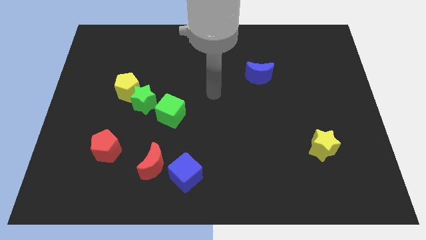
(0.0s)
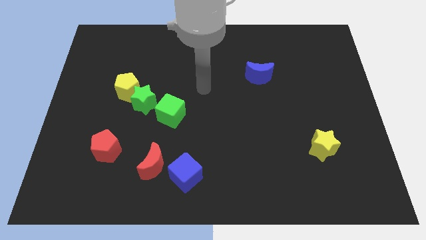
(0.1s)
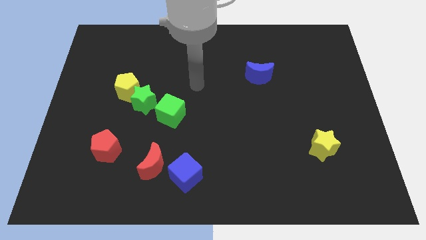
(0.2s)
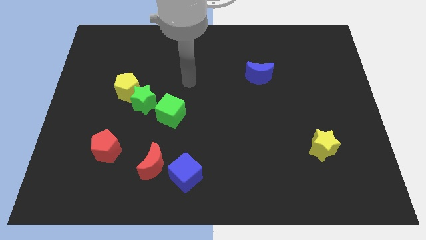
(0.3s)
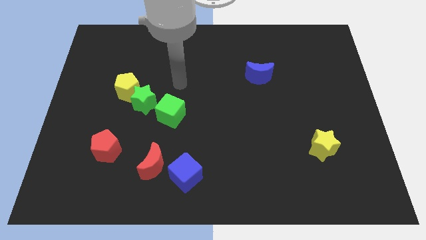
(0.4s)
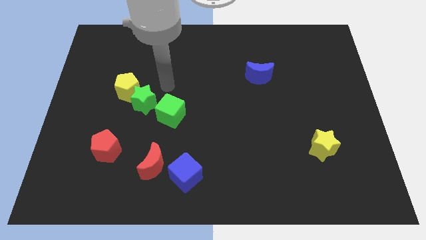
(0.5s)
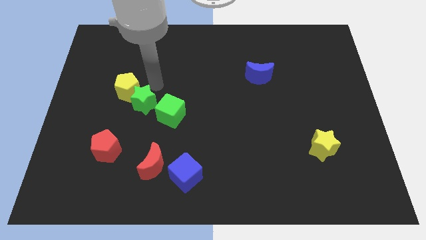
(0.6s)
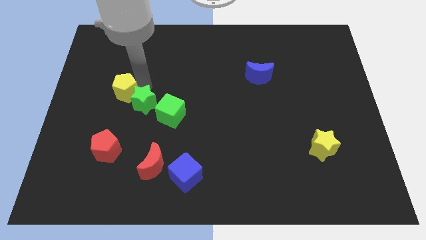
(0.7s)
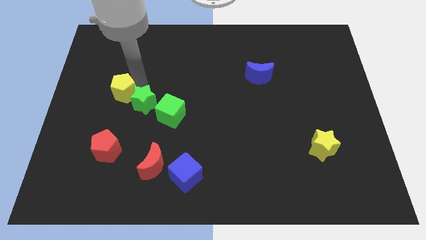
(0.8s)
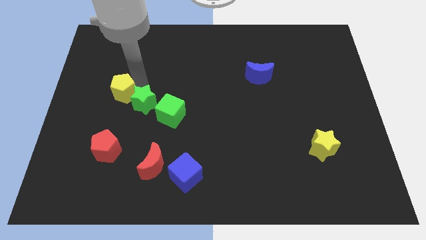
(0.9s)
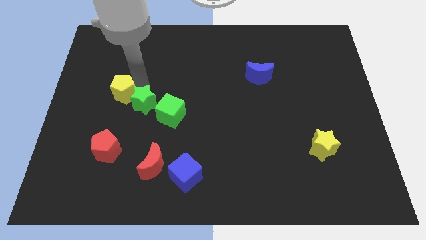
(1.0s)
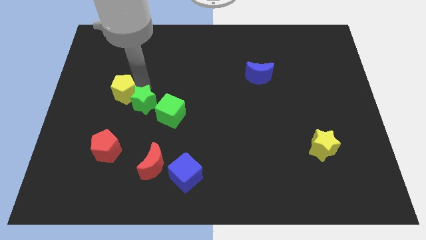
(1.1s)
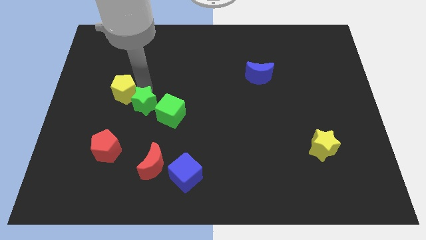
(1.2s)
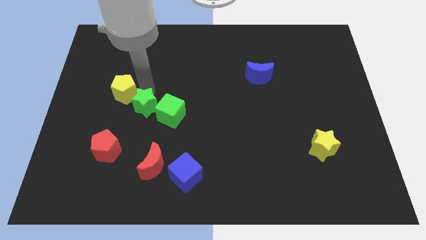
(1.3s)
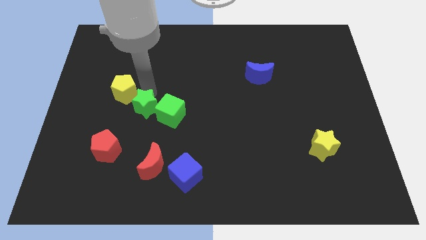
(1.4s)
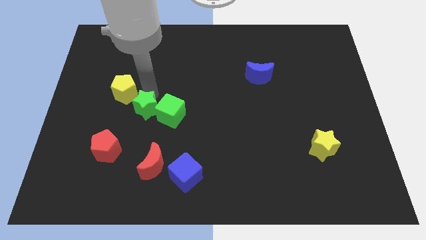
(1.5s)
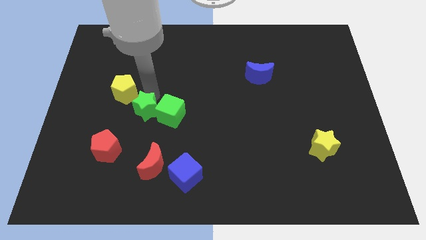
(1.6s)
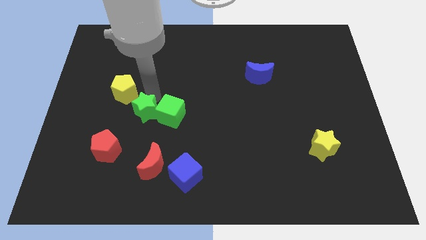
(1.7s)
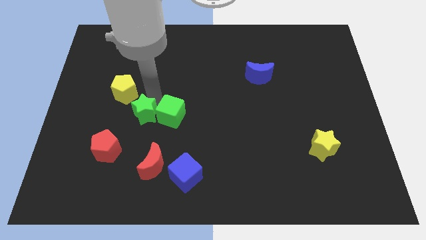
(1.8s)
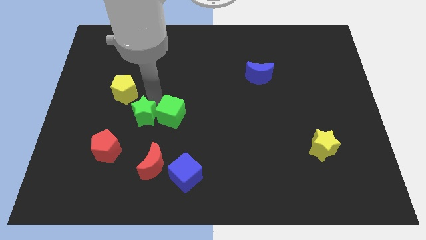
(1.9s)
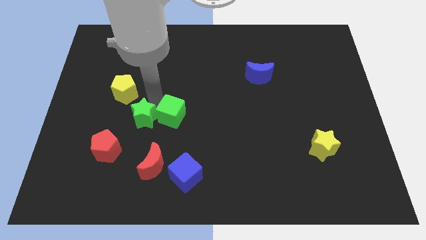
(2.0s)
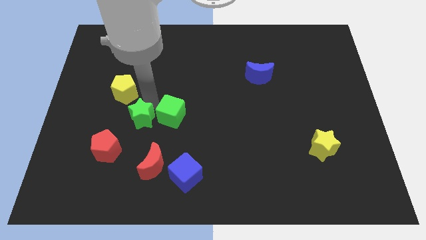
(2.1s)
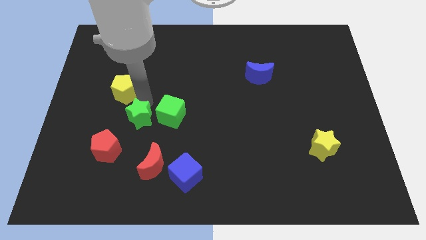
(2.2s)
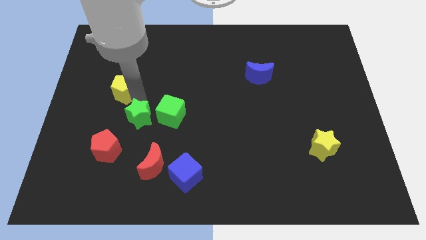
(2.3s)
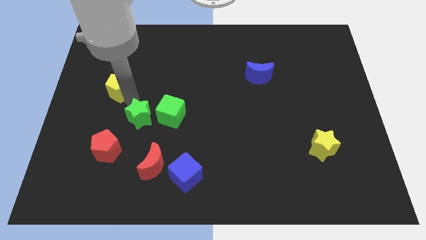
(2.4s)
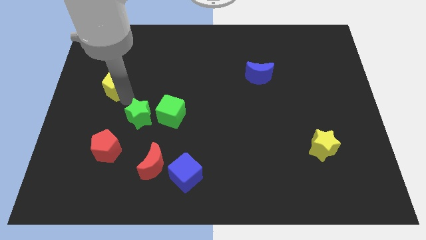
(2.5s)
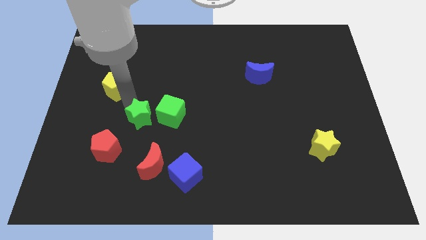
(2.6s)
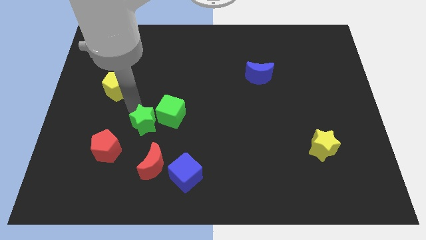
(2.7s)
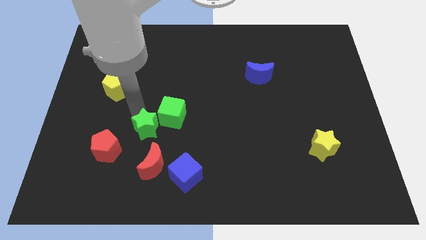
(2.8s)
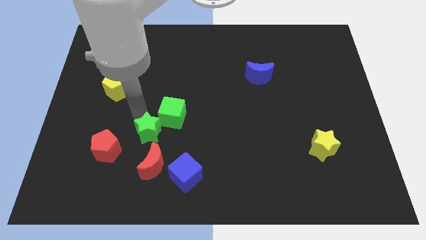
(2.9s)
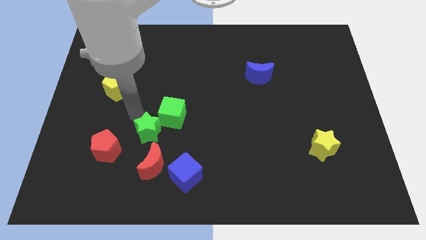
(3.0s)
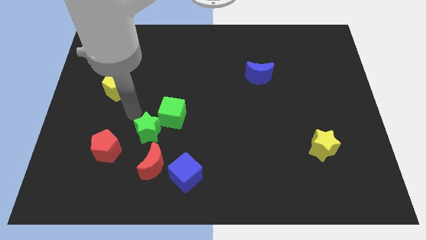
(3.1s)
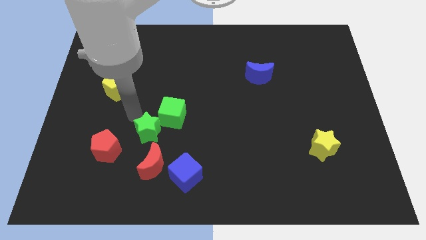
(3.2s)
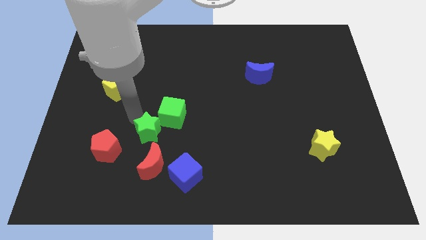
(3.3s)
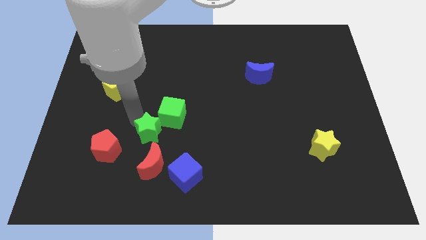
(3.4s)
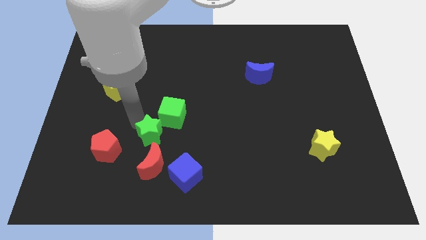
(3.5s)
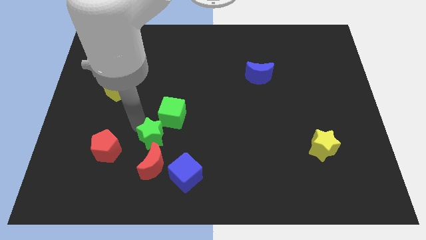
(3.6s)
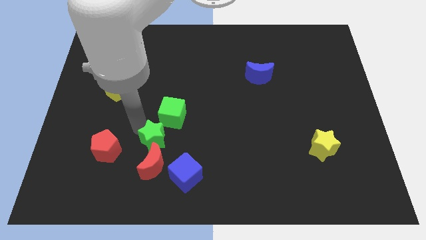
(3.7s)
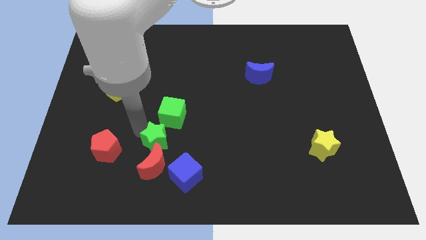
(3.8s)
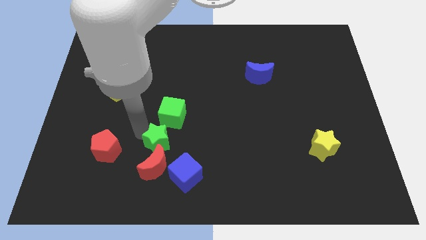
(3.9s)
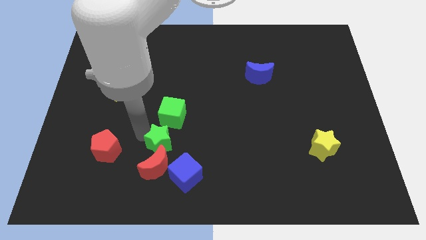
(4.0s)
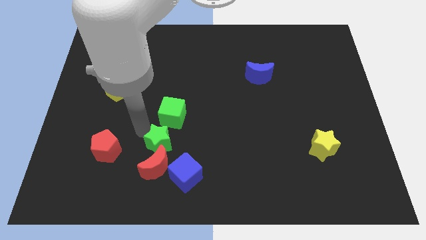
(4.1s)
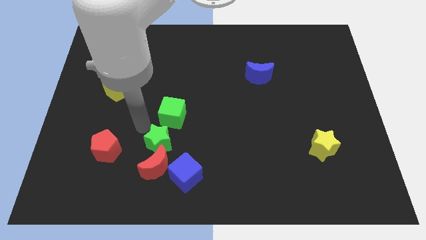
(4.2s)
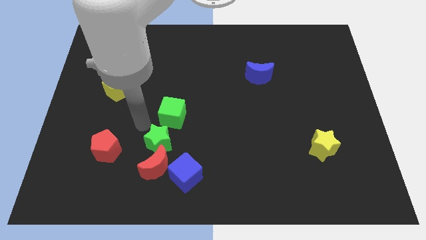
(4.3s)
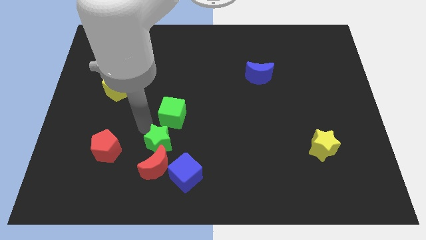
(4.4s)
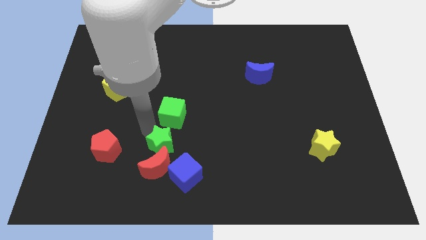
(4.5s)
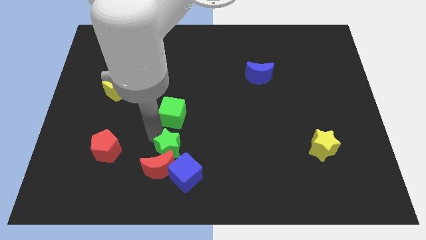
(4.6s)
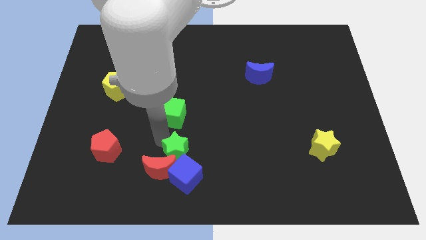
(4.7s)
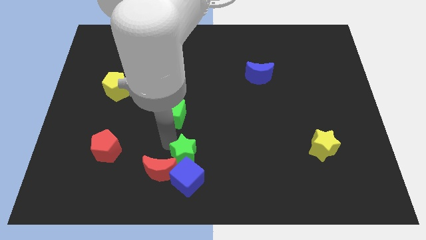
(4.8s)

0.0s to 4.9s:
push the green star next to the blue cube

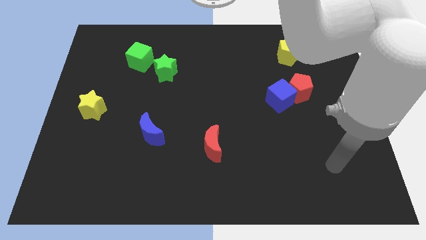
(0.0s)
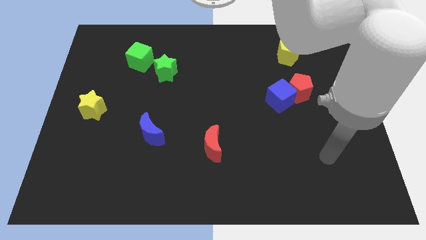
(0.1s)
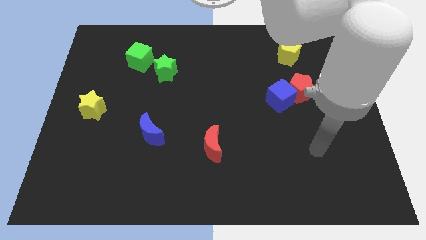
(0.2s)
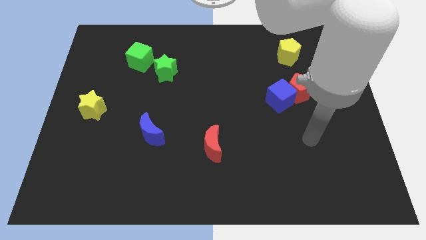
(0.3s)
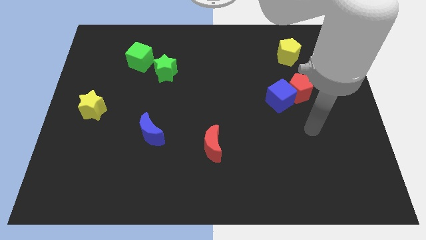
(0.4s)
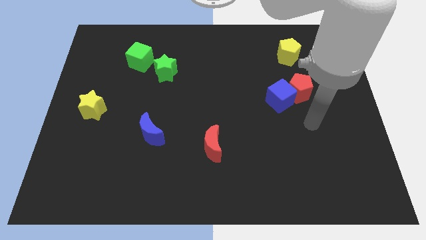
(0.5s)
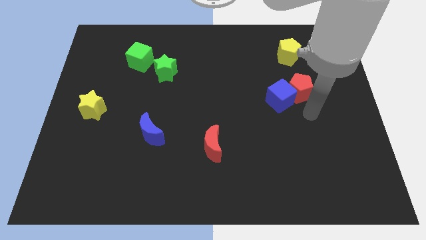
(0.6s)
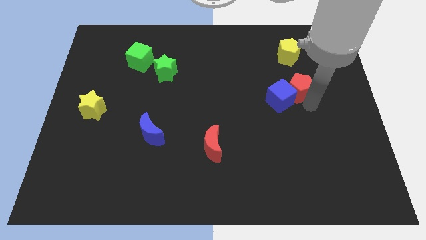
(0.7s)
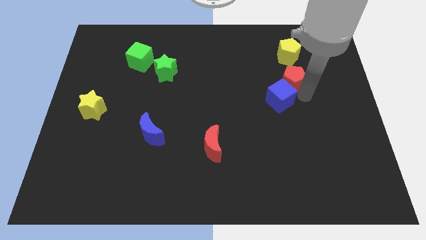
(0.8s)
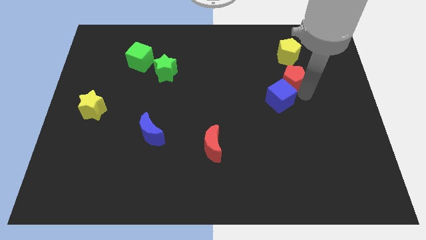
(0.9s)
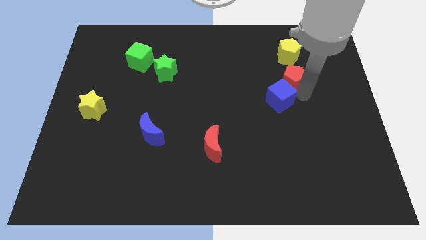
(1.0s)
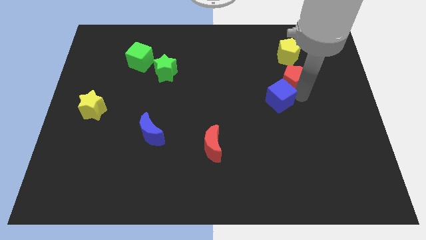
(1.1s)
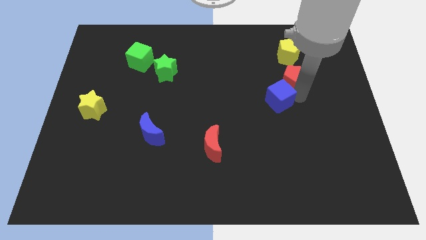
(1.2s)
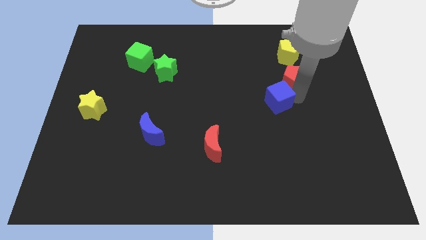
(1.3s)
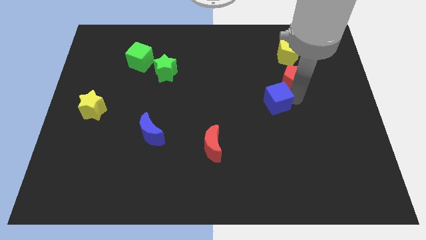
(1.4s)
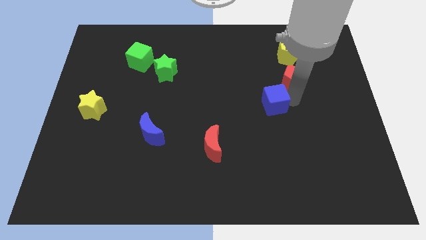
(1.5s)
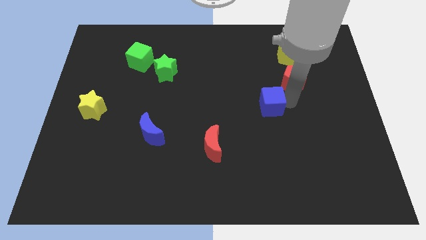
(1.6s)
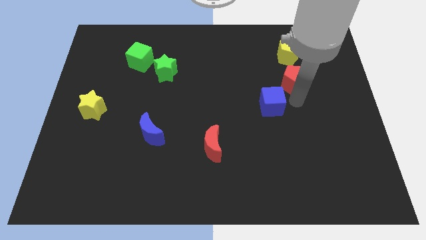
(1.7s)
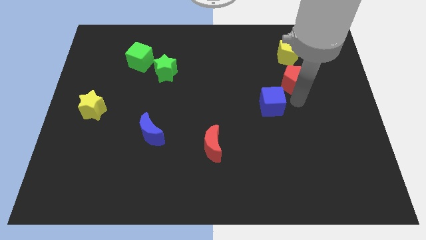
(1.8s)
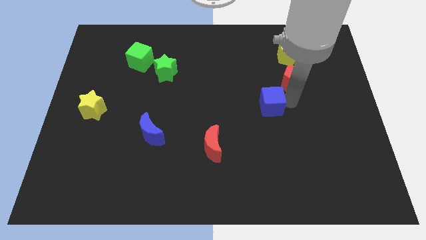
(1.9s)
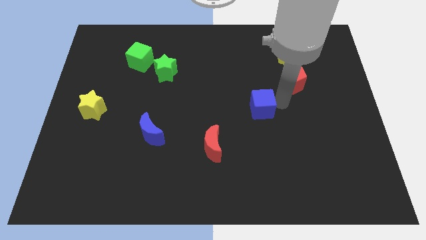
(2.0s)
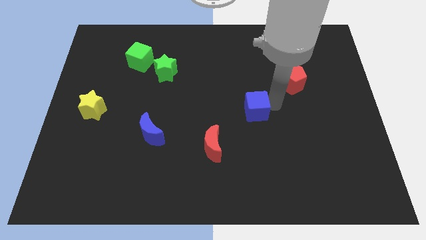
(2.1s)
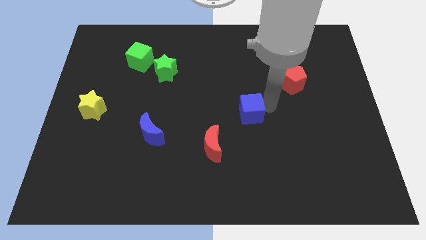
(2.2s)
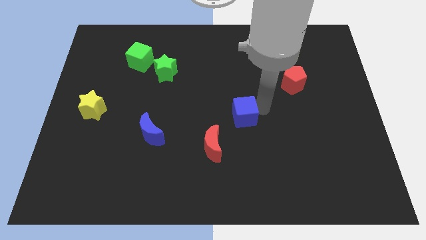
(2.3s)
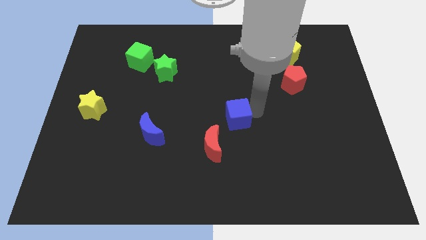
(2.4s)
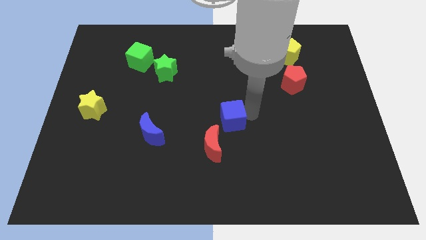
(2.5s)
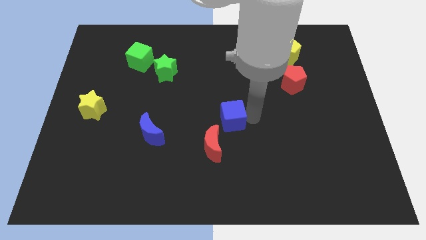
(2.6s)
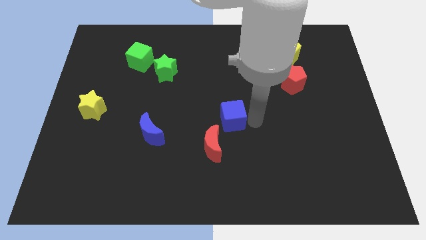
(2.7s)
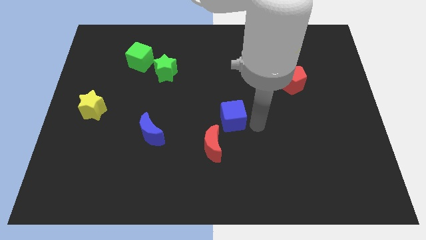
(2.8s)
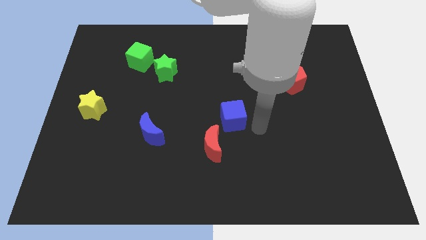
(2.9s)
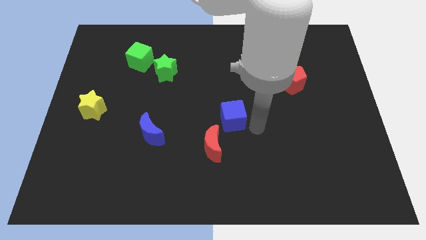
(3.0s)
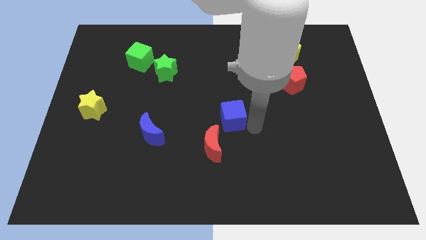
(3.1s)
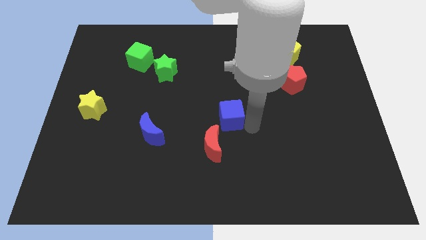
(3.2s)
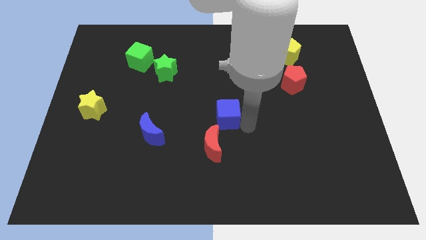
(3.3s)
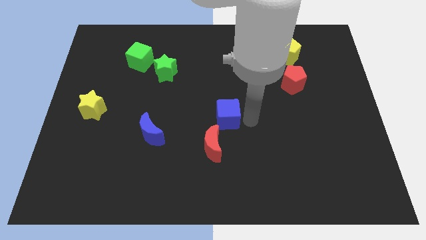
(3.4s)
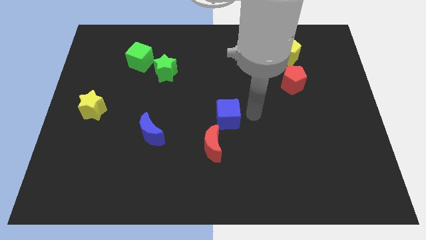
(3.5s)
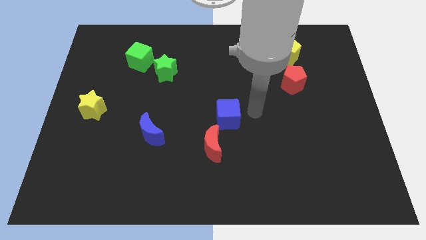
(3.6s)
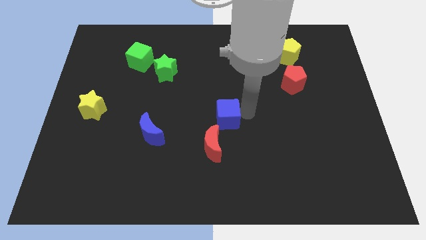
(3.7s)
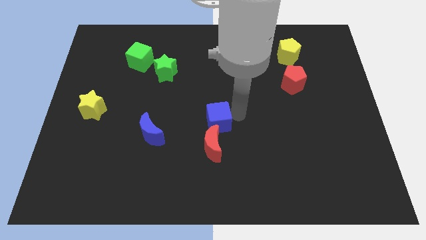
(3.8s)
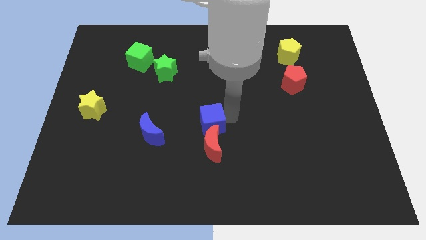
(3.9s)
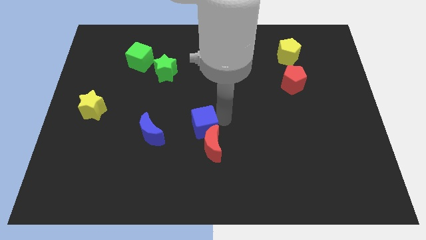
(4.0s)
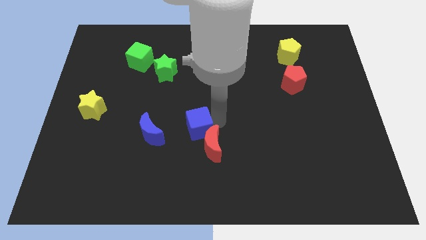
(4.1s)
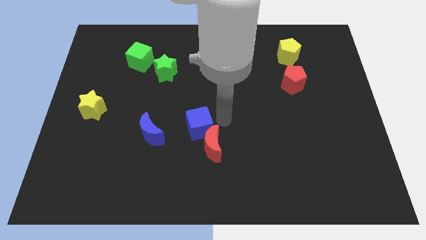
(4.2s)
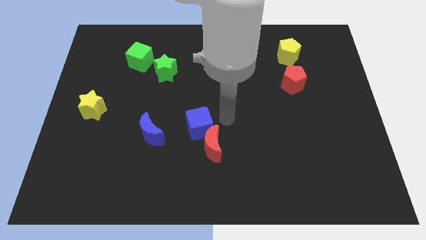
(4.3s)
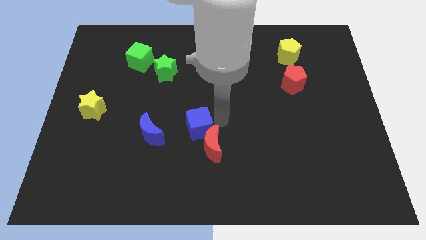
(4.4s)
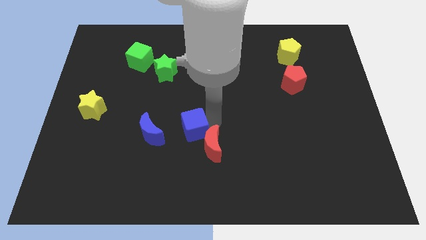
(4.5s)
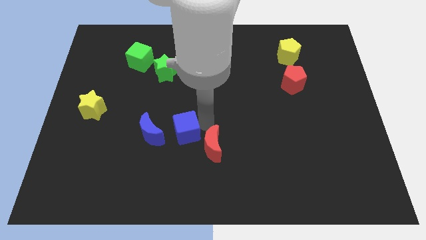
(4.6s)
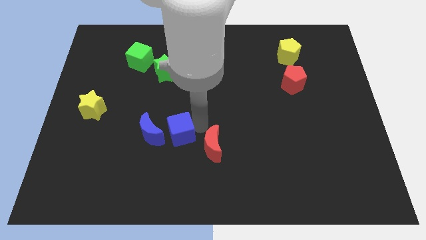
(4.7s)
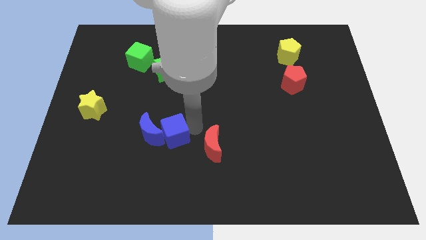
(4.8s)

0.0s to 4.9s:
put the blue cube towards the blue moon
